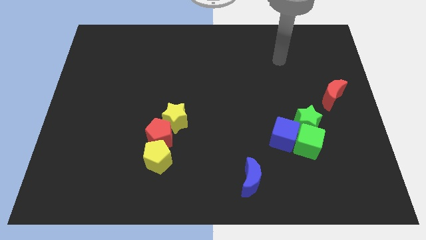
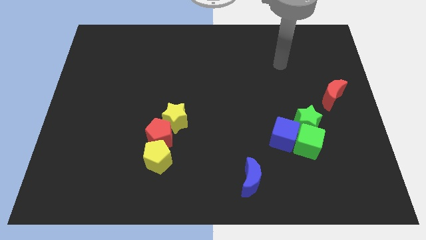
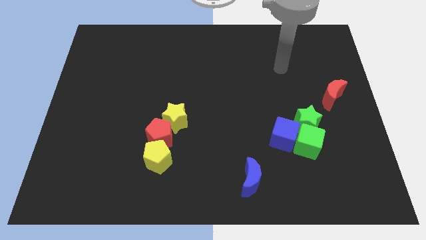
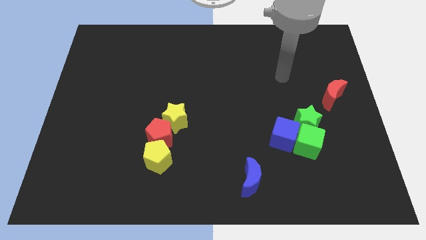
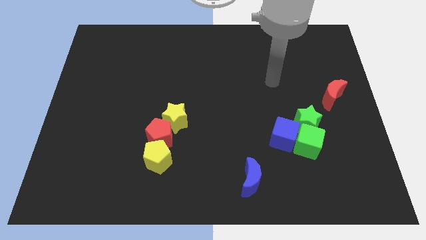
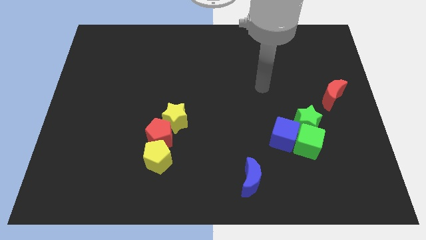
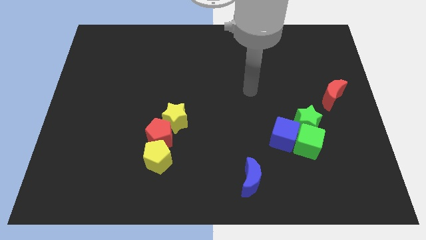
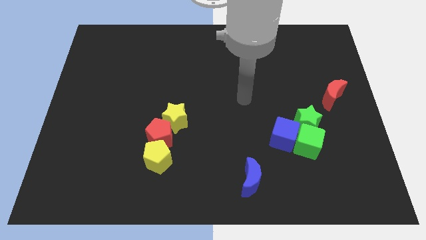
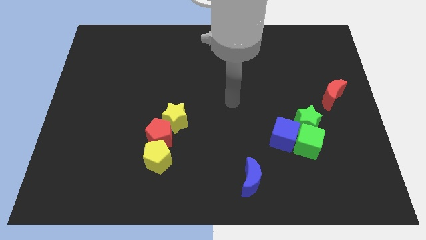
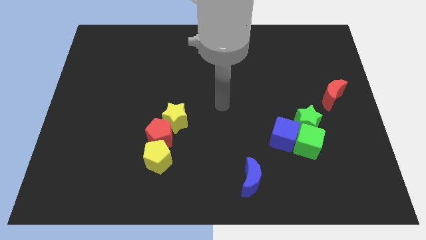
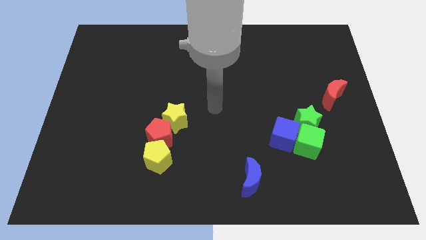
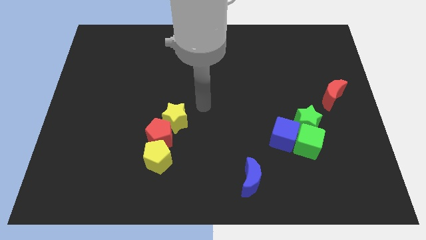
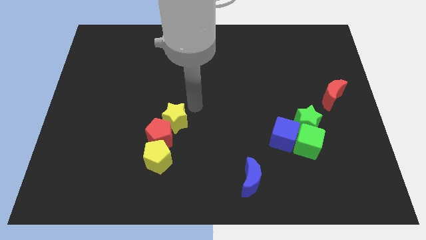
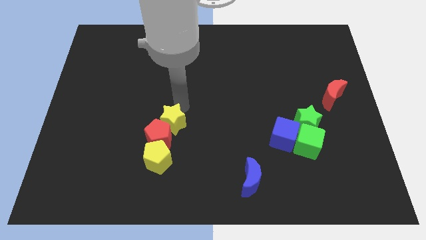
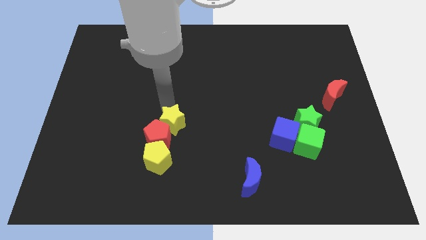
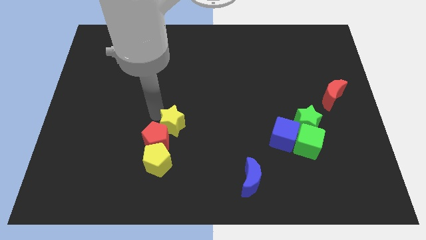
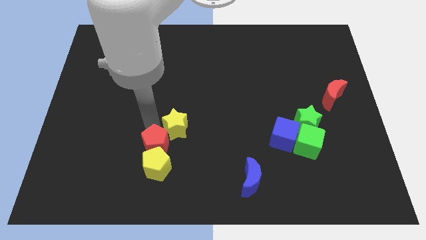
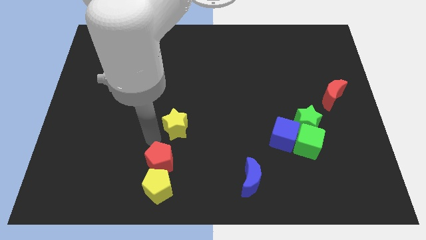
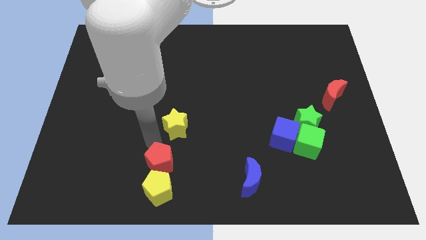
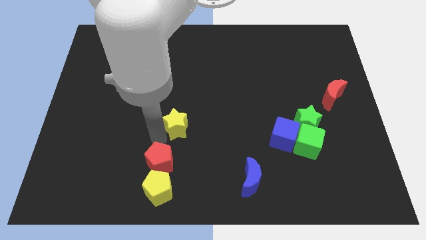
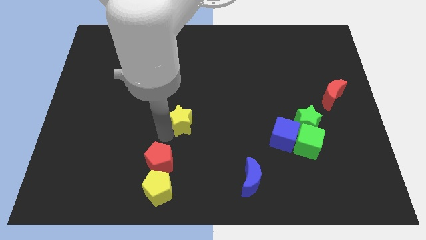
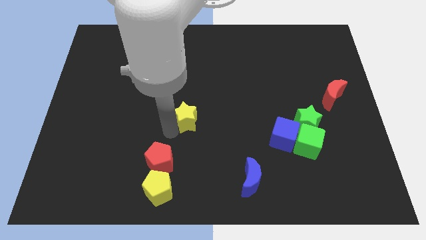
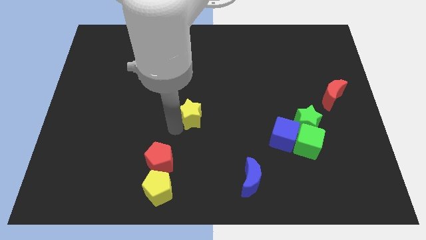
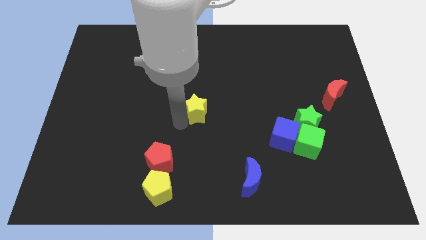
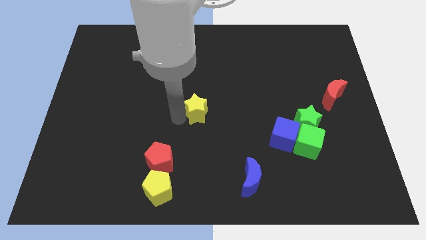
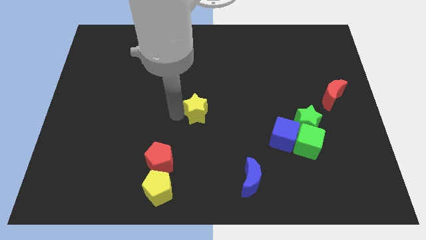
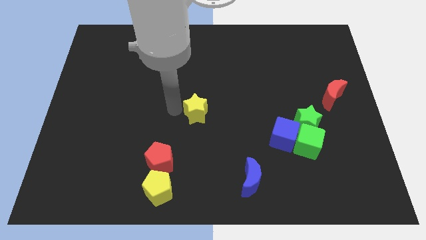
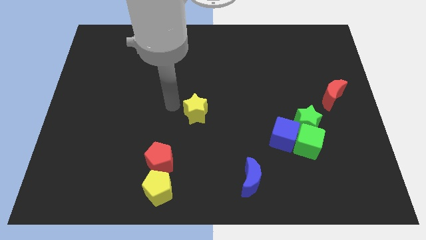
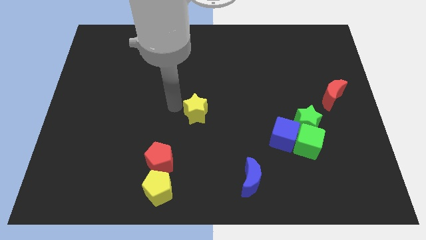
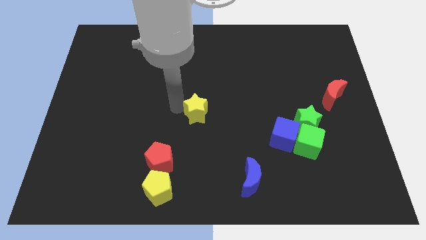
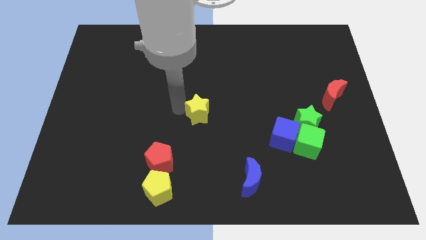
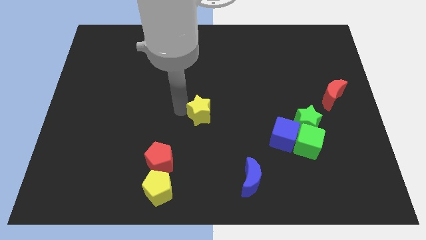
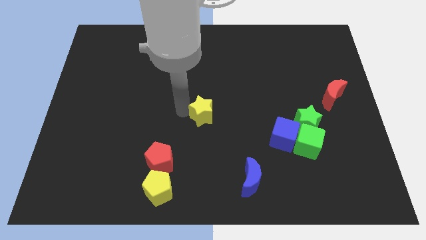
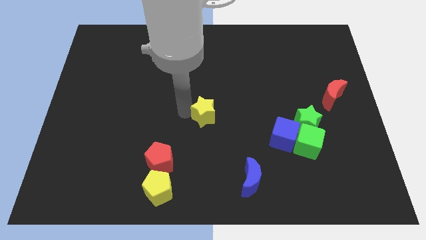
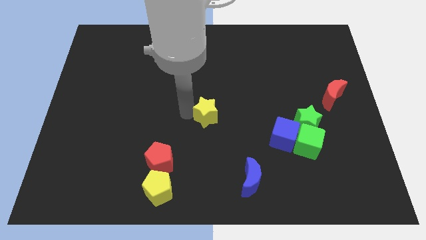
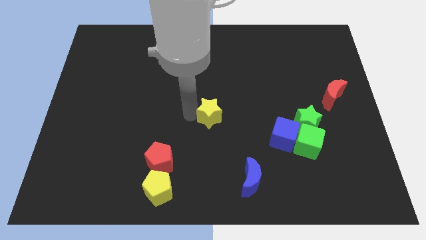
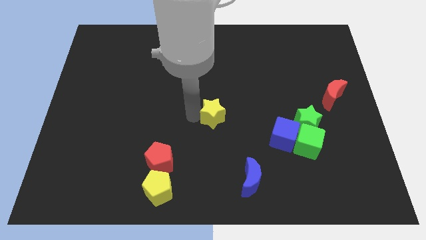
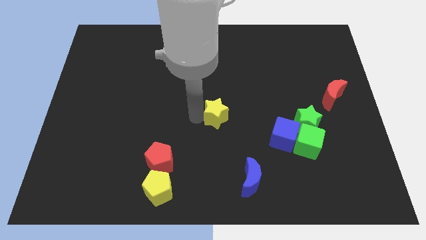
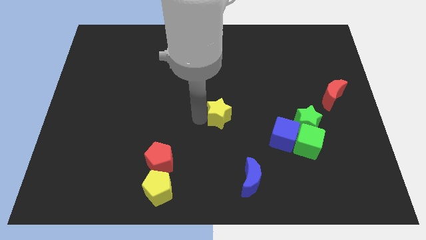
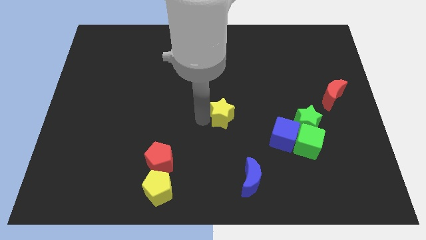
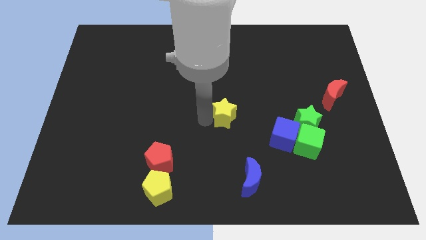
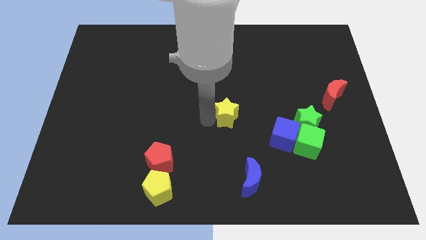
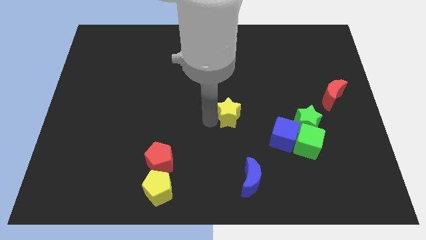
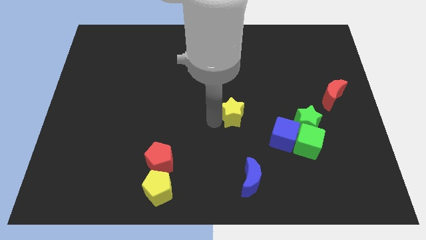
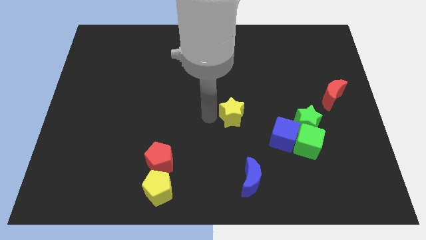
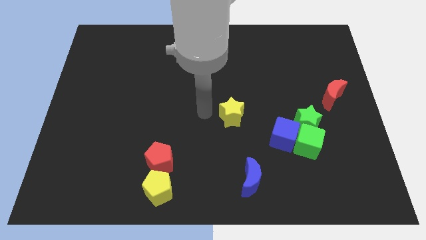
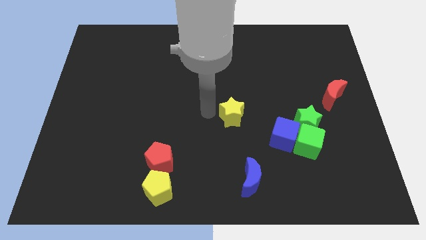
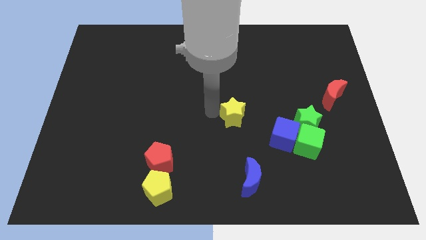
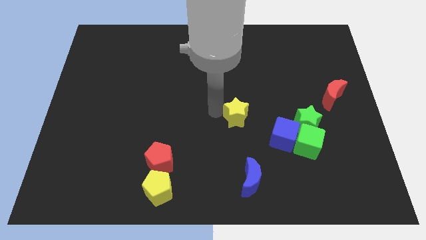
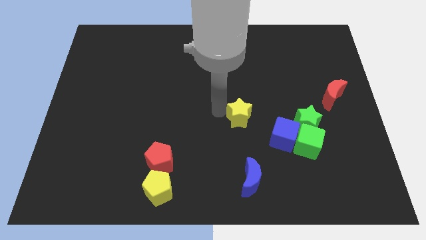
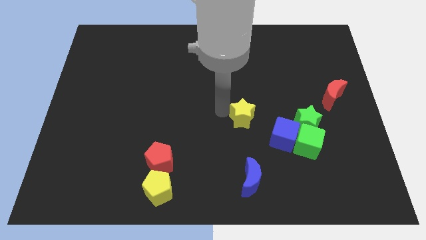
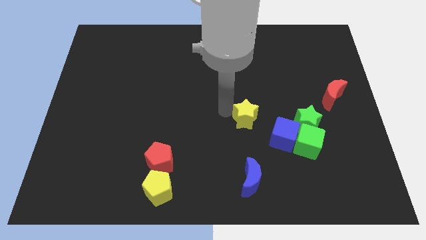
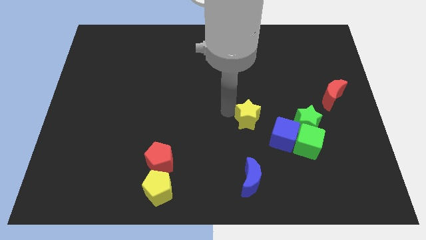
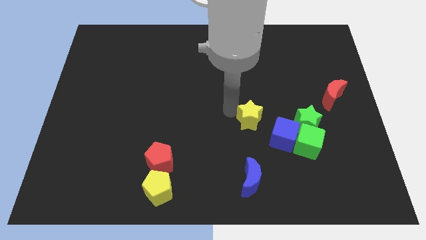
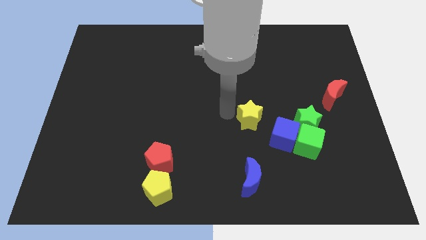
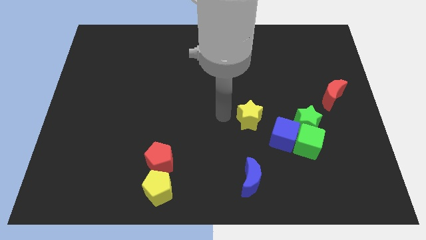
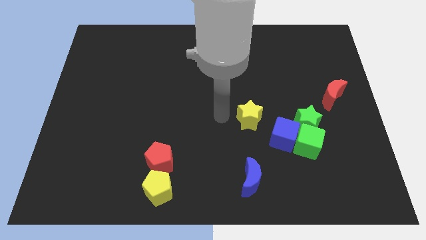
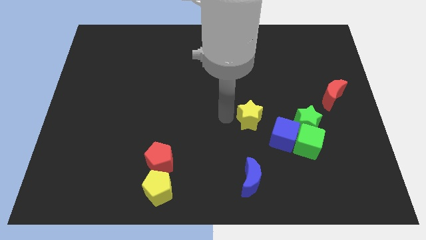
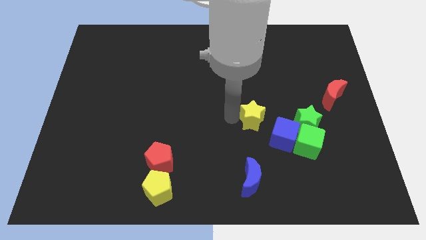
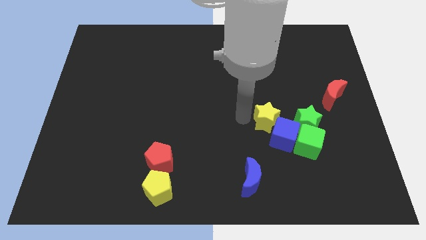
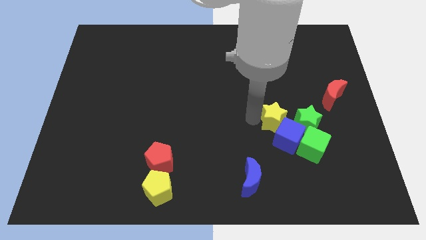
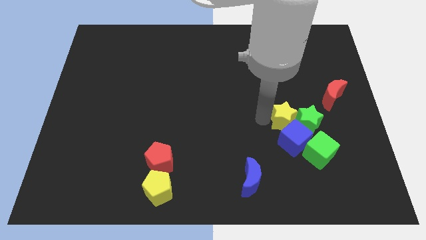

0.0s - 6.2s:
push the yellow star towards the green star
